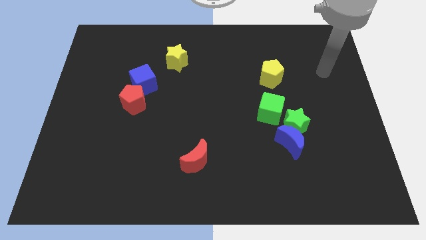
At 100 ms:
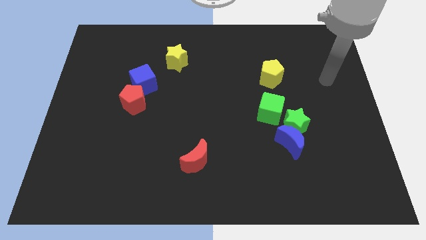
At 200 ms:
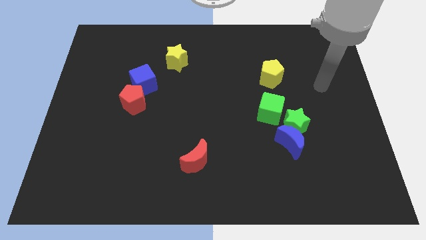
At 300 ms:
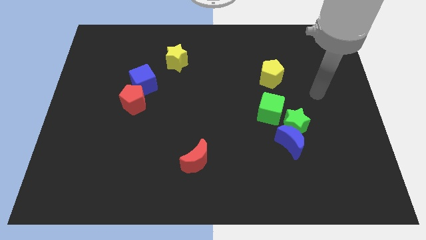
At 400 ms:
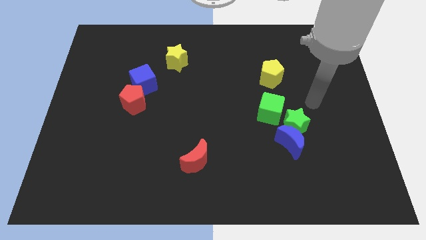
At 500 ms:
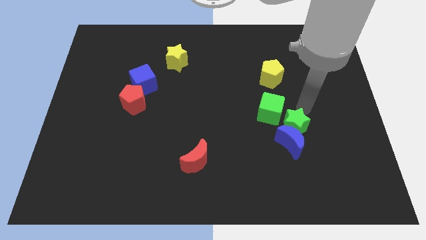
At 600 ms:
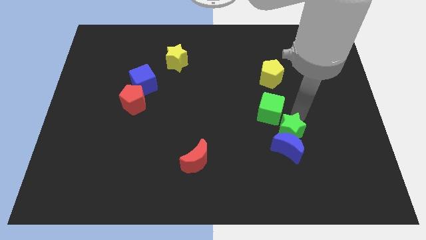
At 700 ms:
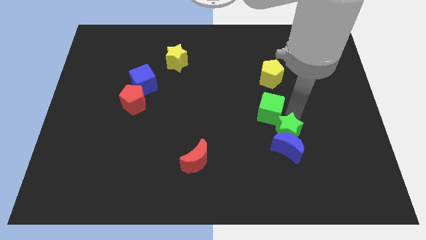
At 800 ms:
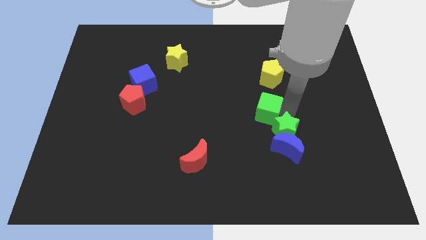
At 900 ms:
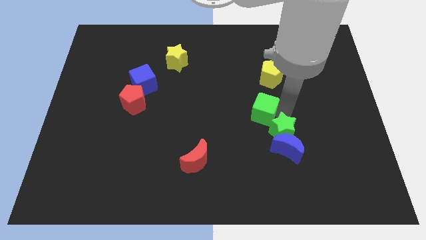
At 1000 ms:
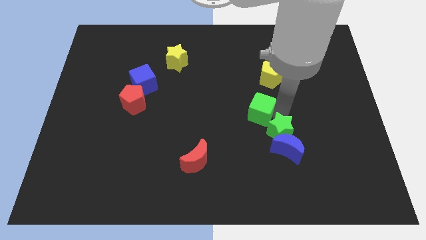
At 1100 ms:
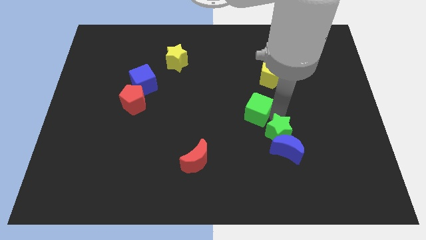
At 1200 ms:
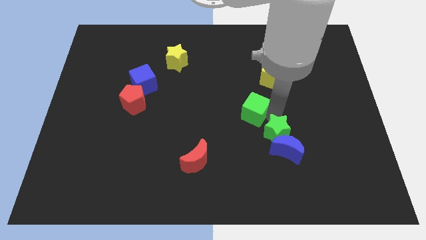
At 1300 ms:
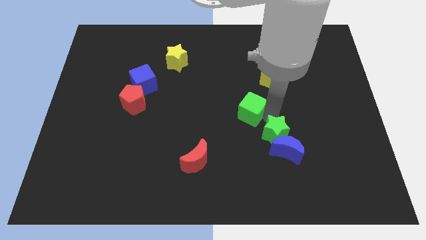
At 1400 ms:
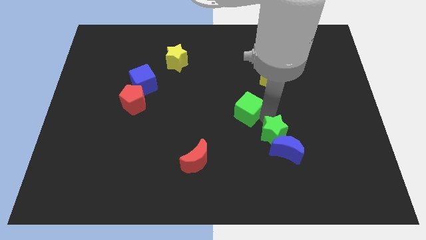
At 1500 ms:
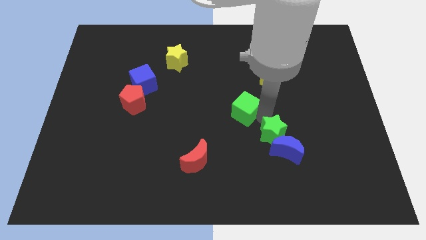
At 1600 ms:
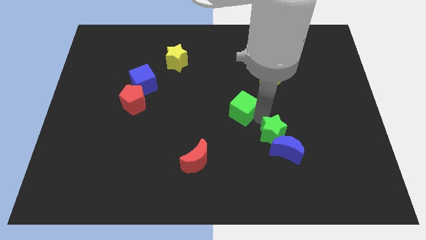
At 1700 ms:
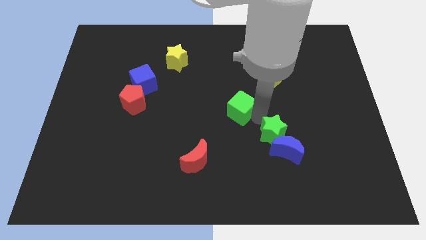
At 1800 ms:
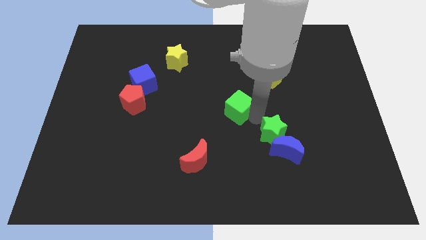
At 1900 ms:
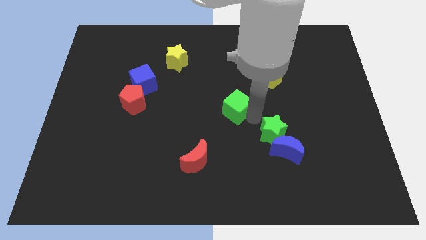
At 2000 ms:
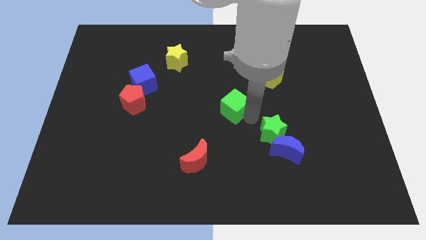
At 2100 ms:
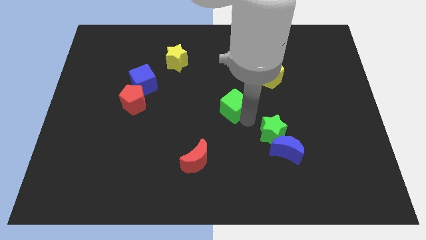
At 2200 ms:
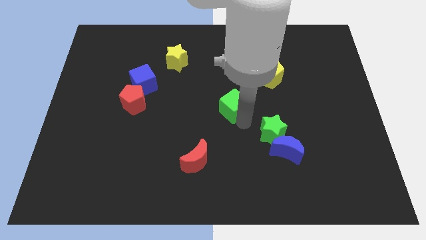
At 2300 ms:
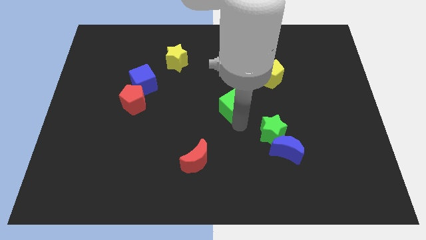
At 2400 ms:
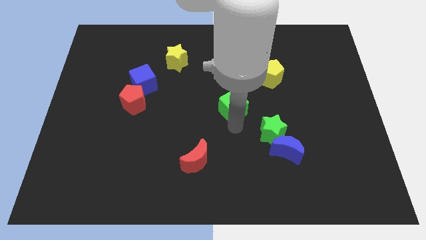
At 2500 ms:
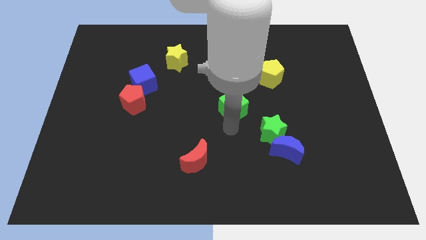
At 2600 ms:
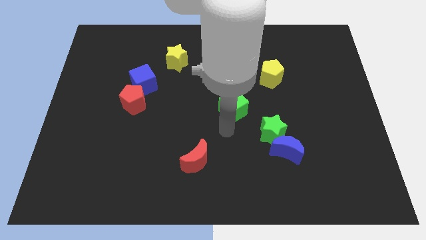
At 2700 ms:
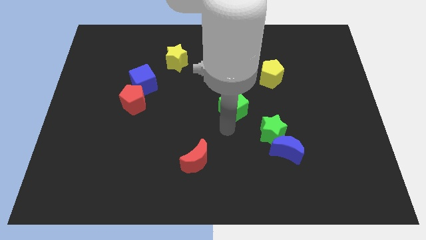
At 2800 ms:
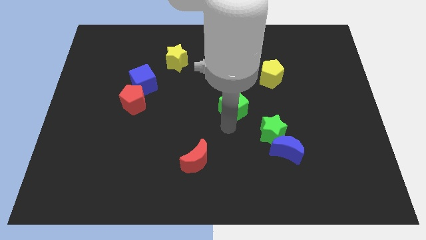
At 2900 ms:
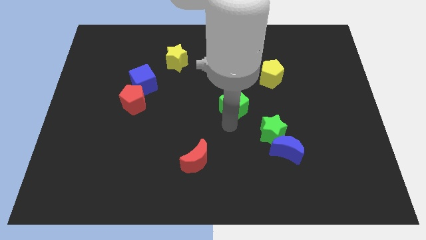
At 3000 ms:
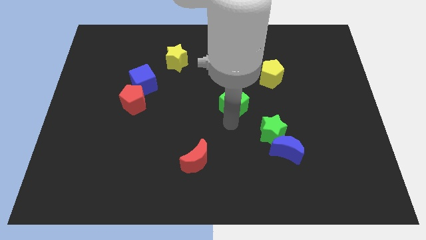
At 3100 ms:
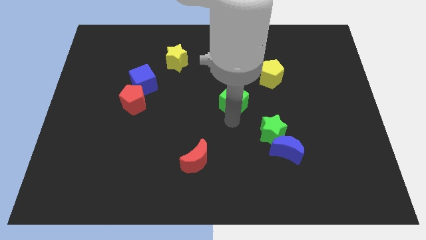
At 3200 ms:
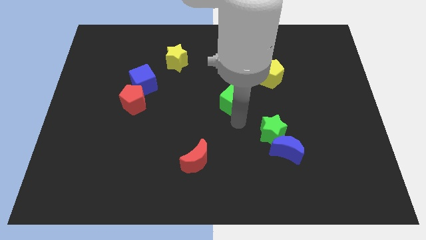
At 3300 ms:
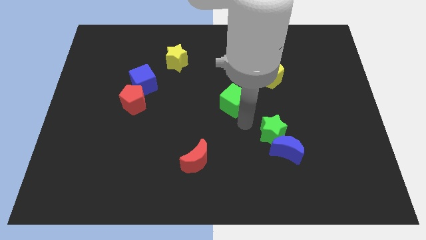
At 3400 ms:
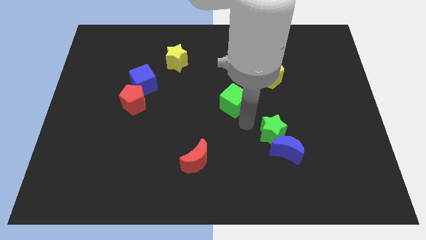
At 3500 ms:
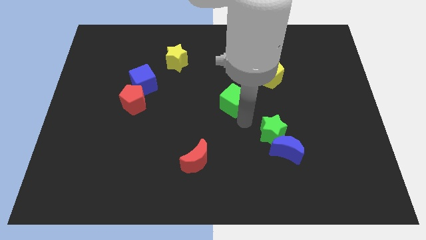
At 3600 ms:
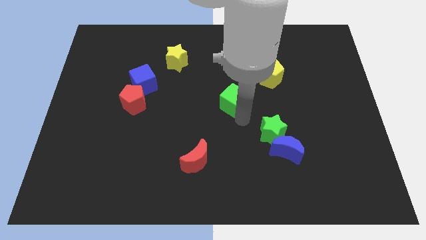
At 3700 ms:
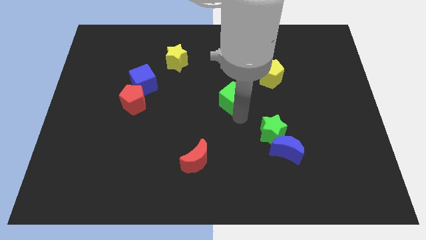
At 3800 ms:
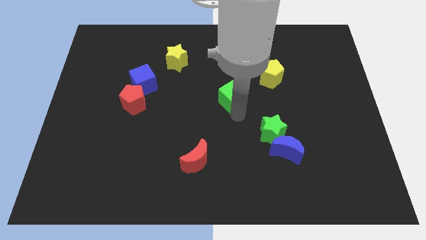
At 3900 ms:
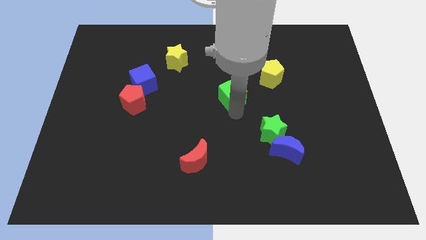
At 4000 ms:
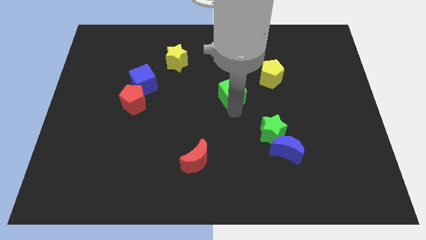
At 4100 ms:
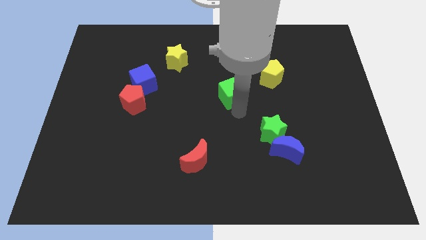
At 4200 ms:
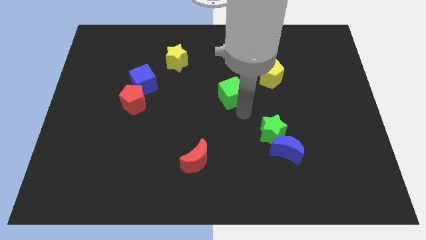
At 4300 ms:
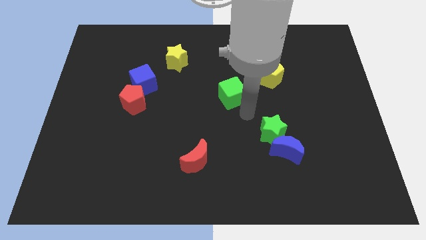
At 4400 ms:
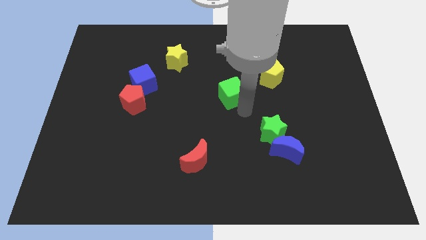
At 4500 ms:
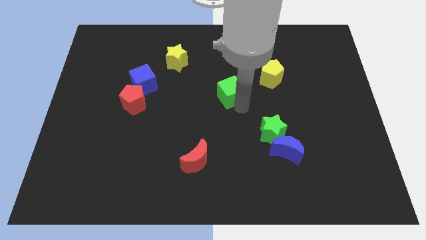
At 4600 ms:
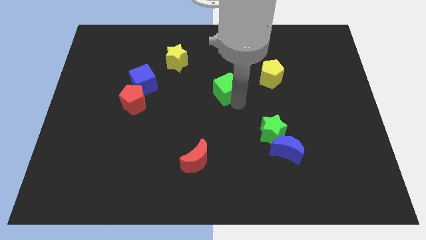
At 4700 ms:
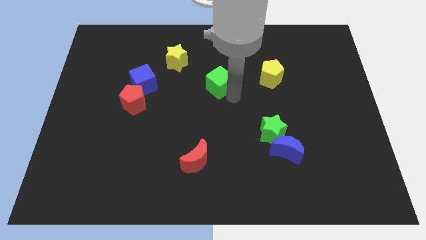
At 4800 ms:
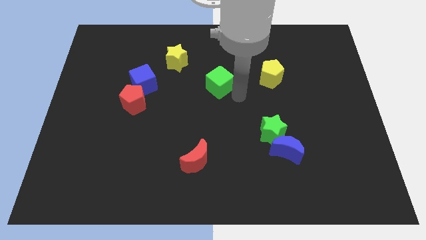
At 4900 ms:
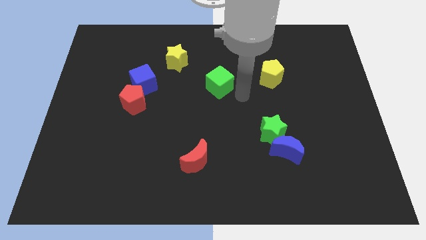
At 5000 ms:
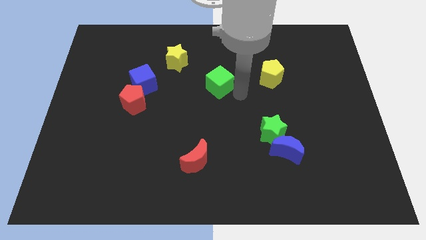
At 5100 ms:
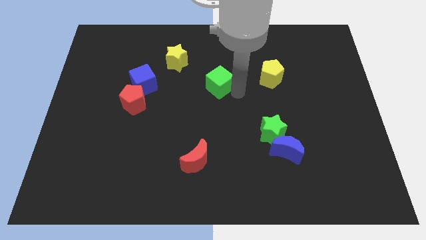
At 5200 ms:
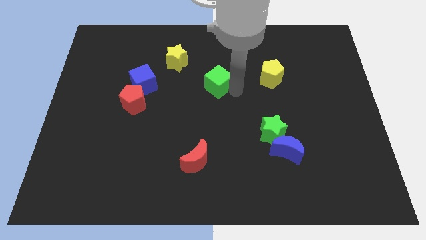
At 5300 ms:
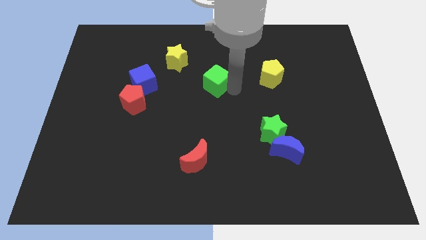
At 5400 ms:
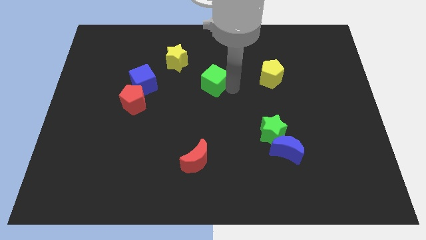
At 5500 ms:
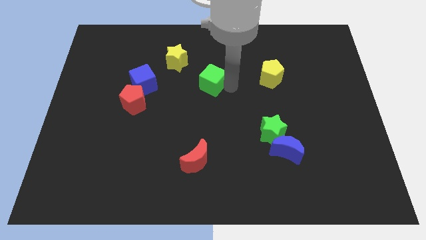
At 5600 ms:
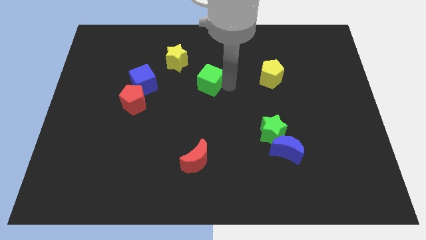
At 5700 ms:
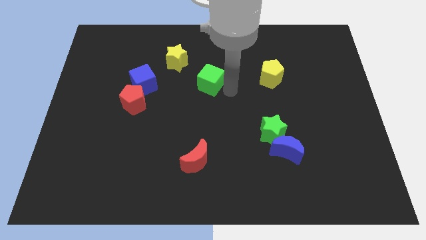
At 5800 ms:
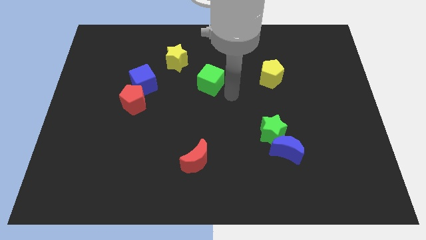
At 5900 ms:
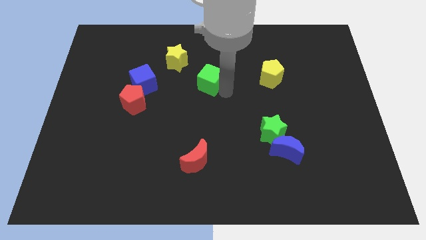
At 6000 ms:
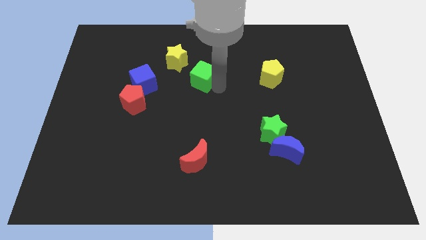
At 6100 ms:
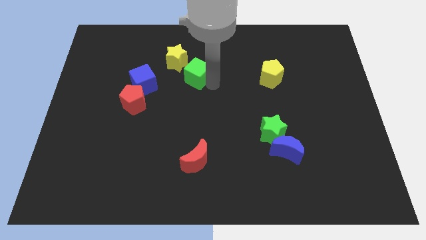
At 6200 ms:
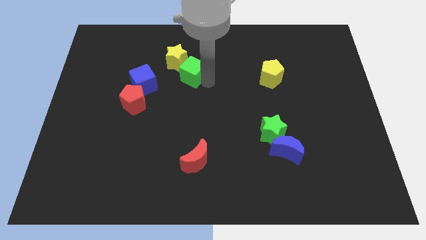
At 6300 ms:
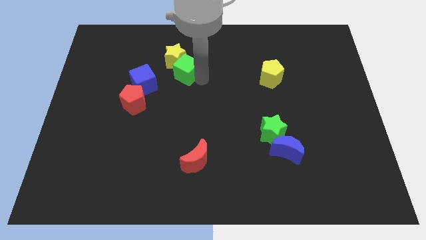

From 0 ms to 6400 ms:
move the green cube towards the yellow star

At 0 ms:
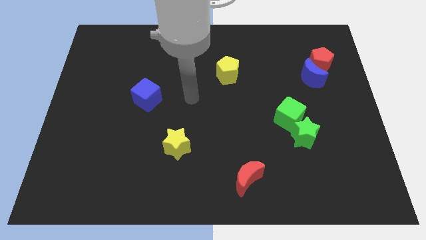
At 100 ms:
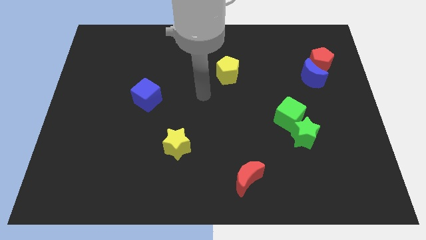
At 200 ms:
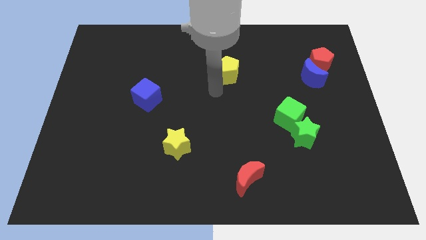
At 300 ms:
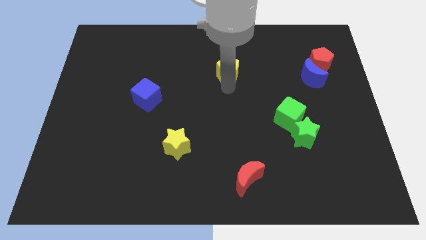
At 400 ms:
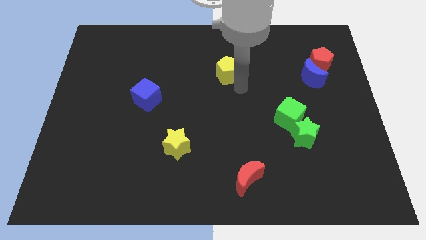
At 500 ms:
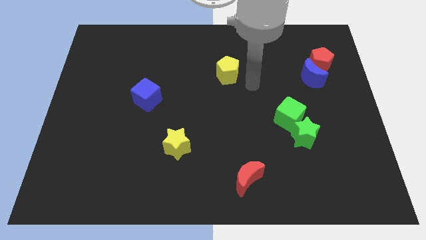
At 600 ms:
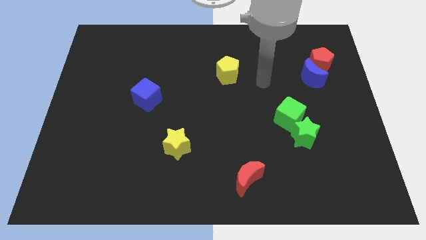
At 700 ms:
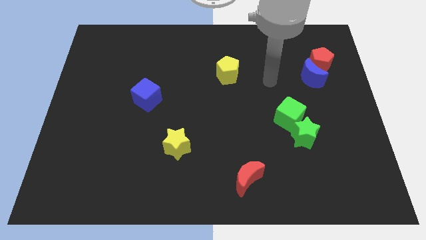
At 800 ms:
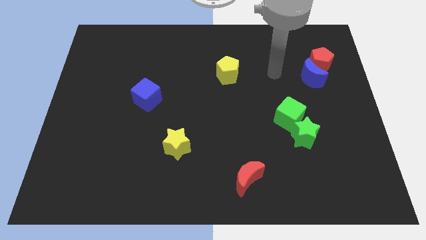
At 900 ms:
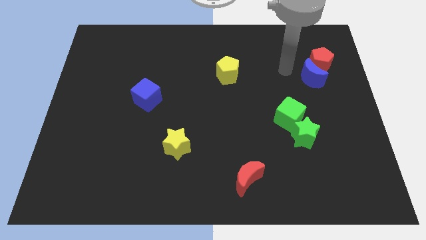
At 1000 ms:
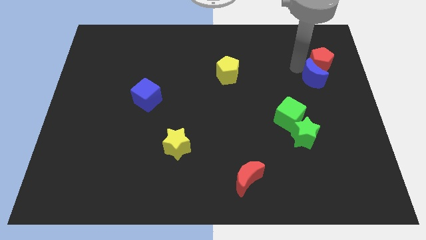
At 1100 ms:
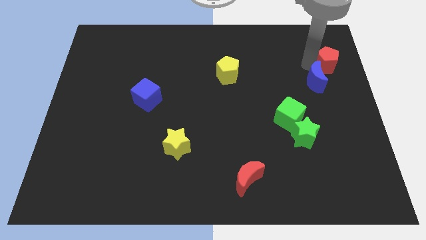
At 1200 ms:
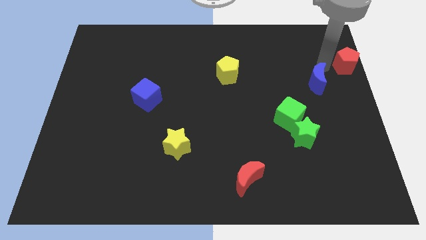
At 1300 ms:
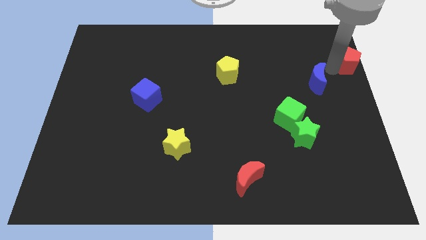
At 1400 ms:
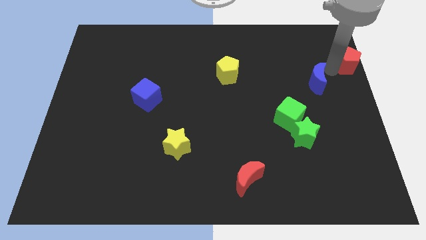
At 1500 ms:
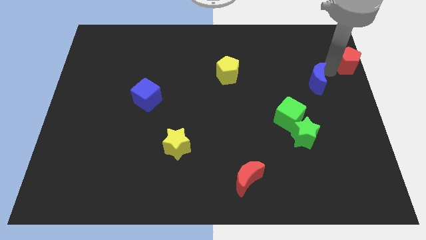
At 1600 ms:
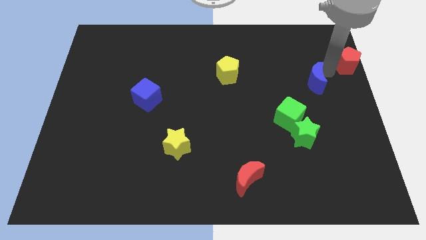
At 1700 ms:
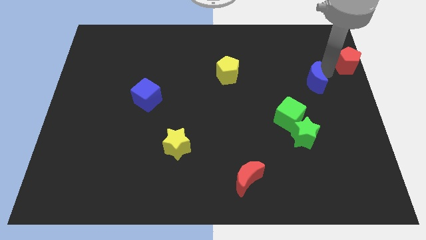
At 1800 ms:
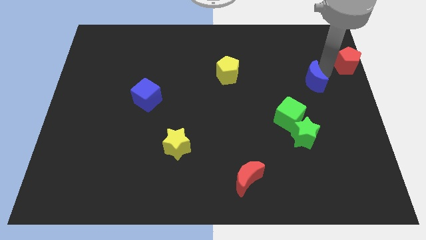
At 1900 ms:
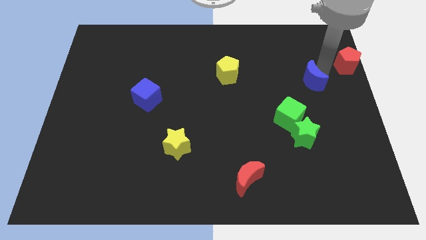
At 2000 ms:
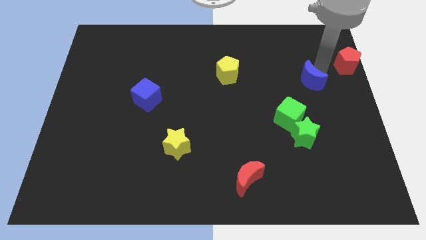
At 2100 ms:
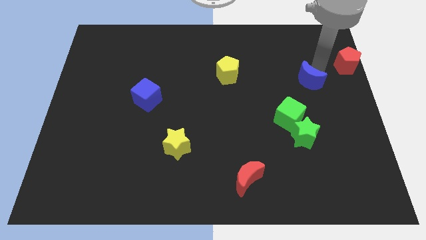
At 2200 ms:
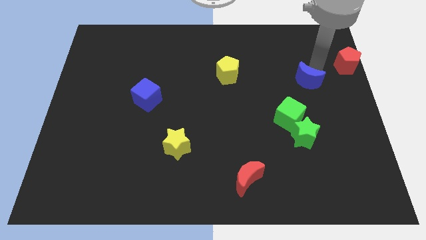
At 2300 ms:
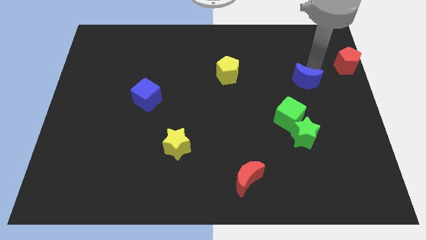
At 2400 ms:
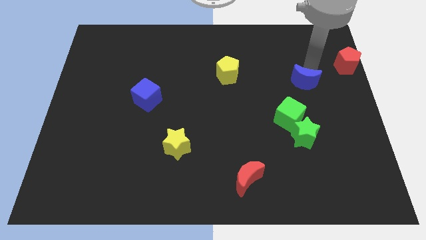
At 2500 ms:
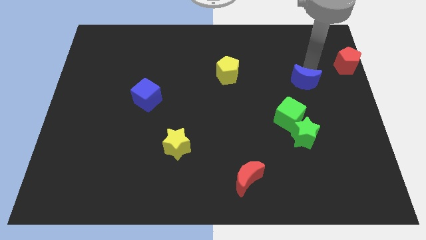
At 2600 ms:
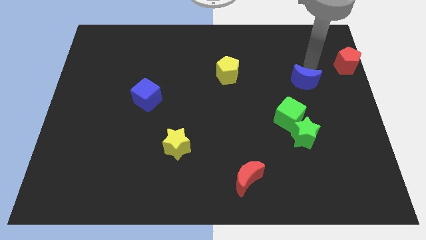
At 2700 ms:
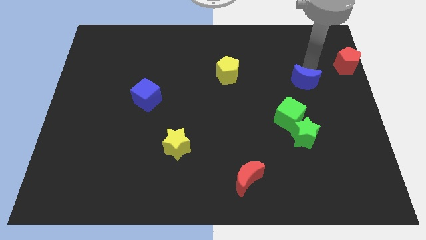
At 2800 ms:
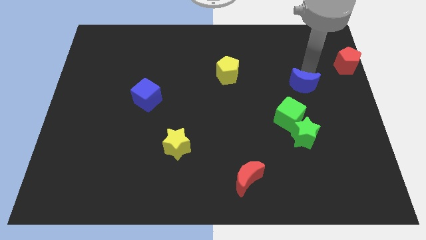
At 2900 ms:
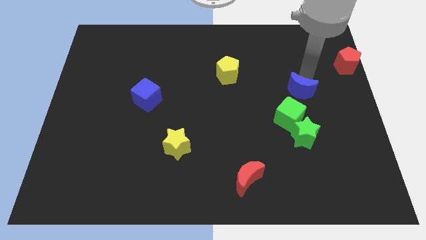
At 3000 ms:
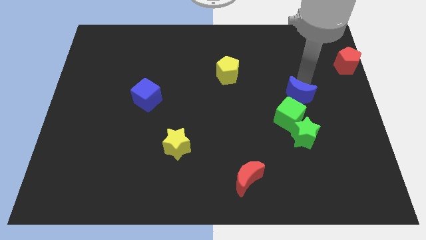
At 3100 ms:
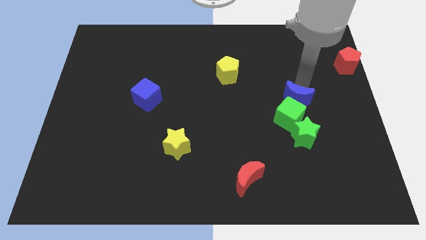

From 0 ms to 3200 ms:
slide the blue moon towards the green cube
